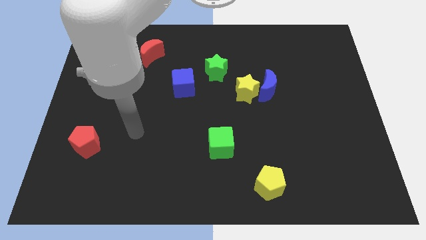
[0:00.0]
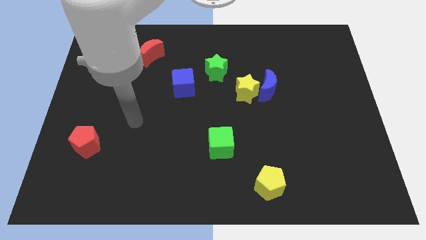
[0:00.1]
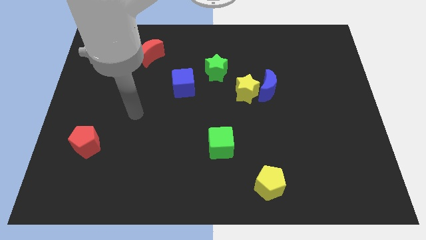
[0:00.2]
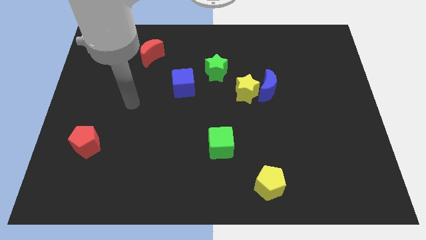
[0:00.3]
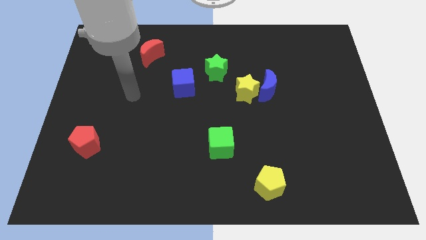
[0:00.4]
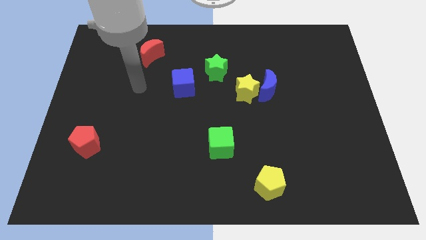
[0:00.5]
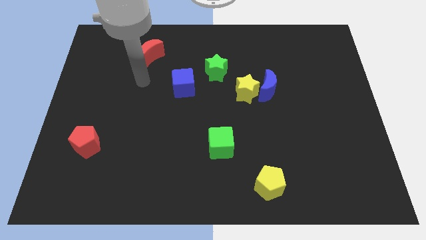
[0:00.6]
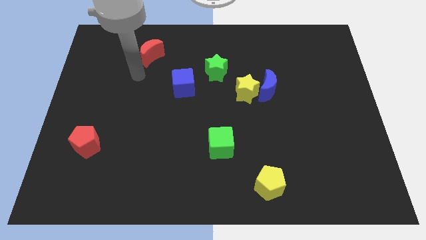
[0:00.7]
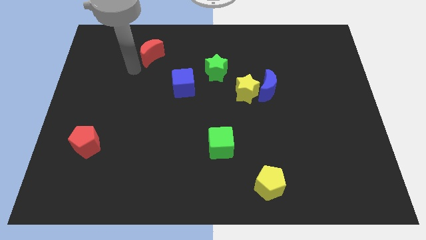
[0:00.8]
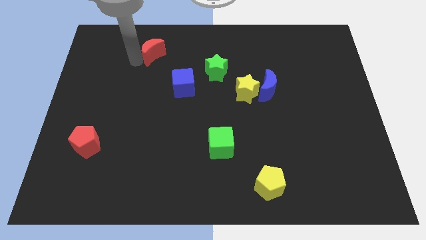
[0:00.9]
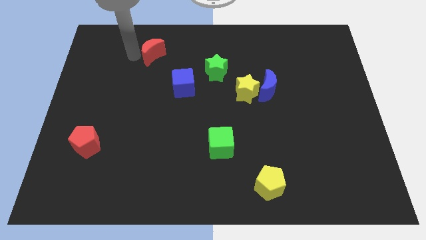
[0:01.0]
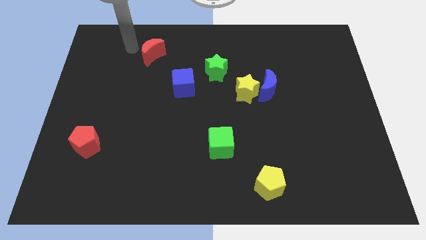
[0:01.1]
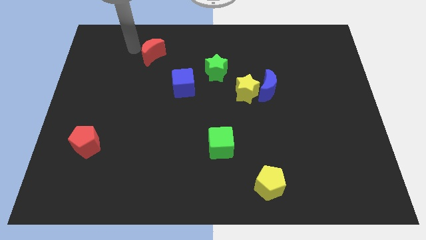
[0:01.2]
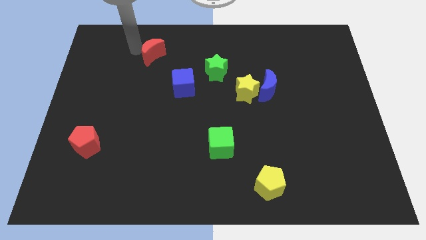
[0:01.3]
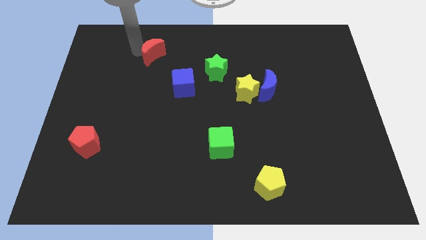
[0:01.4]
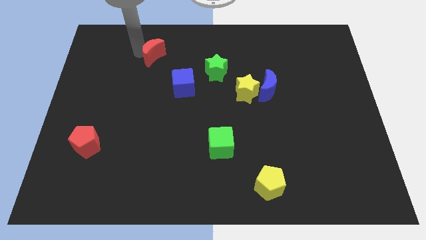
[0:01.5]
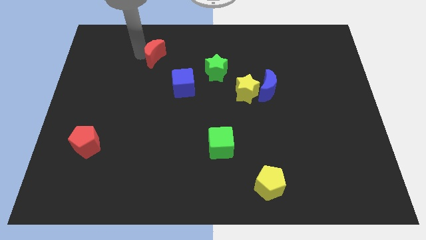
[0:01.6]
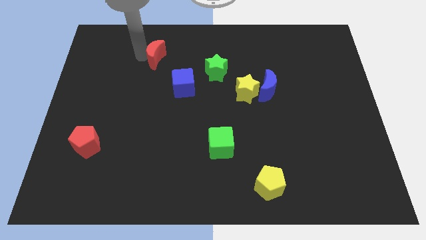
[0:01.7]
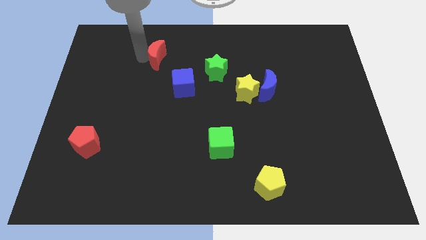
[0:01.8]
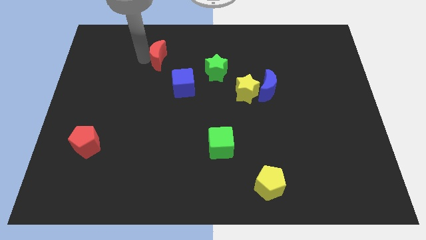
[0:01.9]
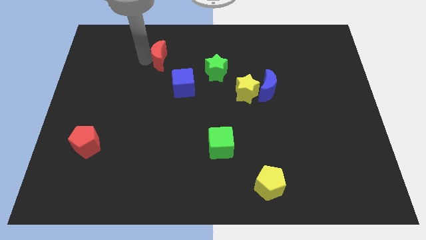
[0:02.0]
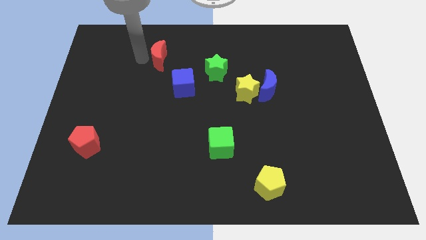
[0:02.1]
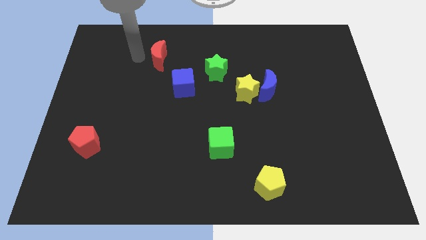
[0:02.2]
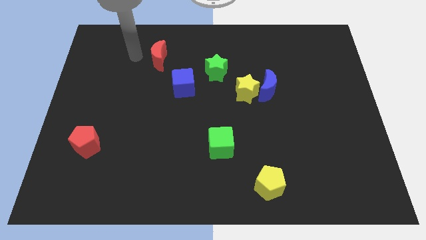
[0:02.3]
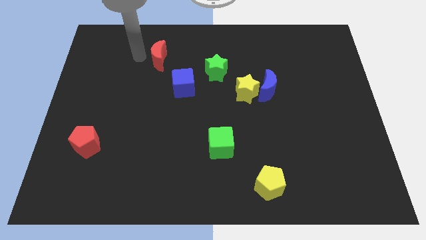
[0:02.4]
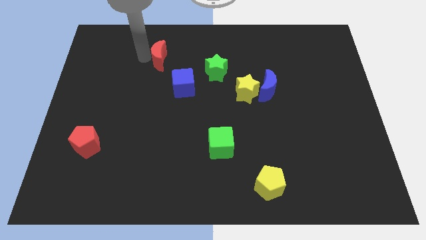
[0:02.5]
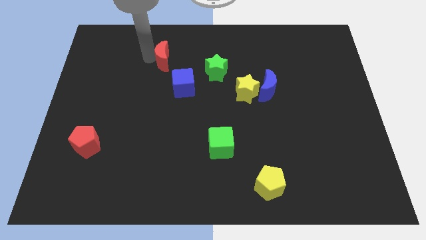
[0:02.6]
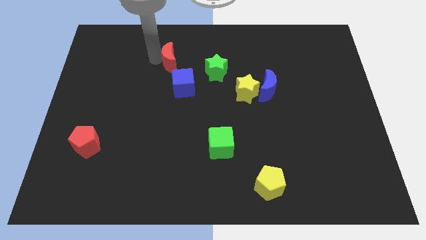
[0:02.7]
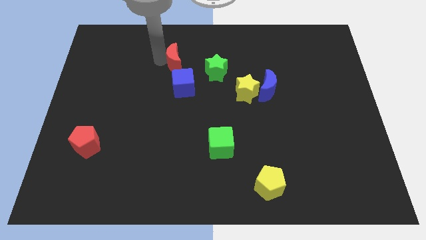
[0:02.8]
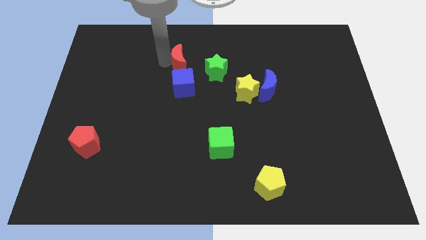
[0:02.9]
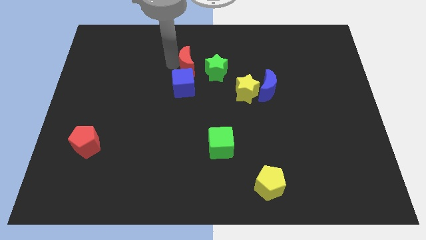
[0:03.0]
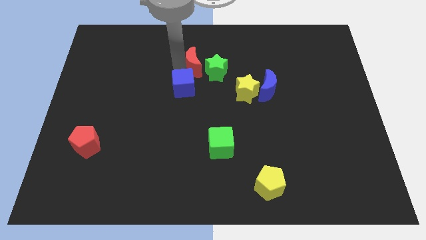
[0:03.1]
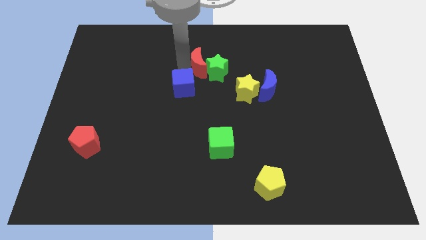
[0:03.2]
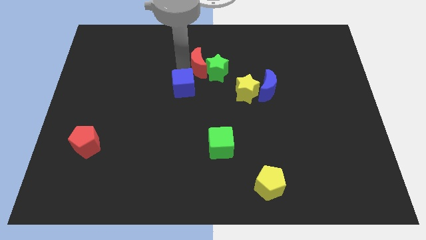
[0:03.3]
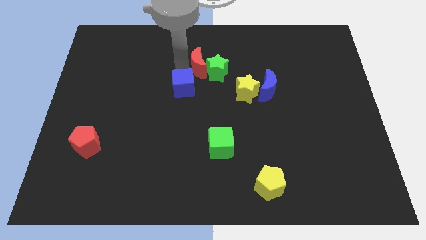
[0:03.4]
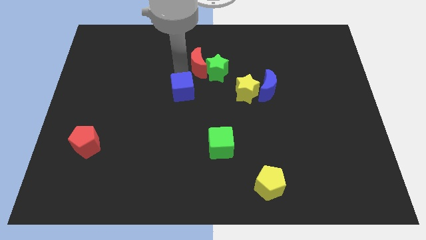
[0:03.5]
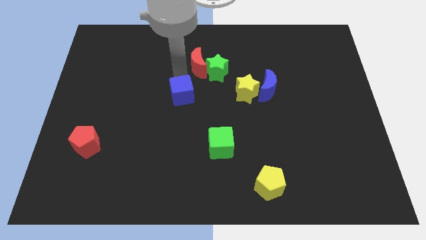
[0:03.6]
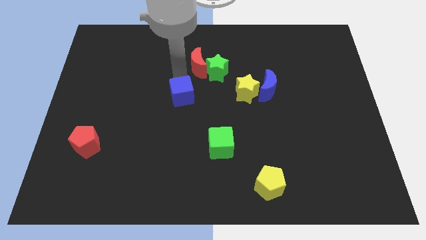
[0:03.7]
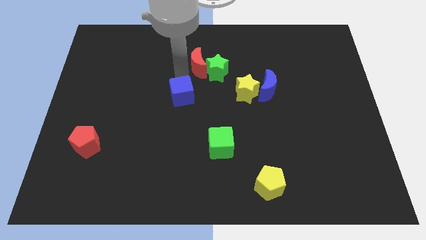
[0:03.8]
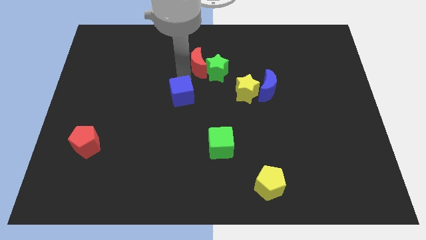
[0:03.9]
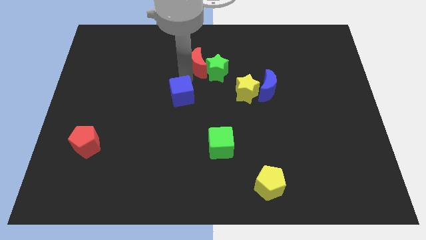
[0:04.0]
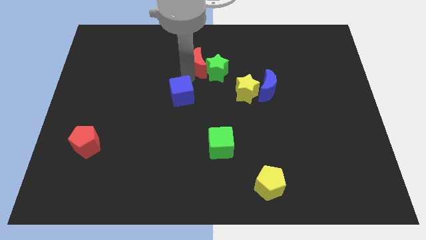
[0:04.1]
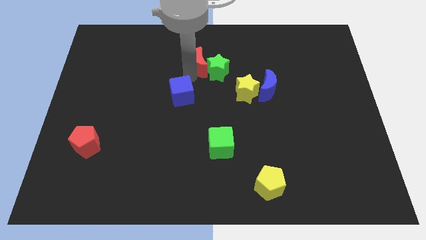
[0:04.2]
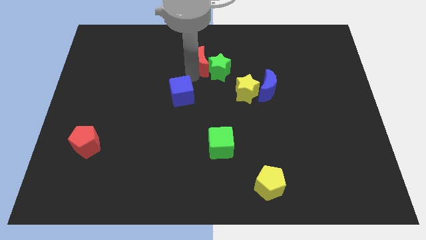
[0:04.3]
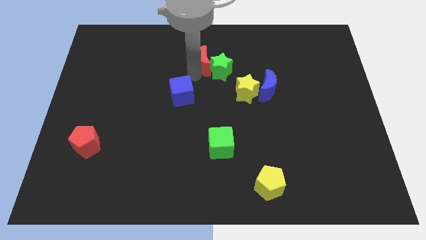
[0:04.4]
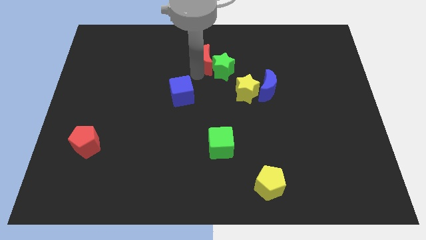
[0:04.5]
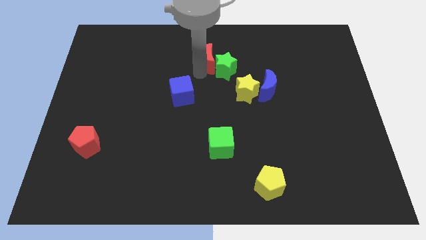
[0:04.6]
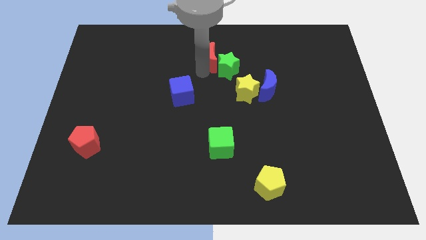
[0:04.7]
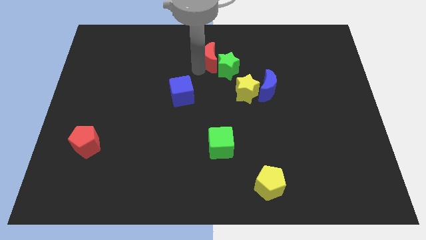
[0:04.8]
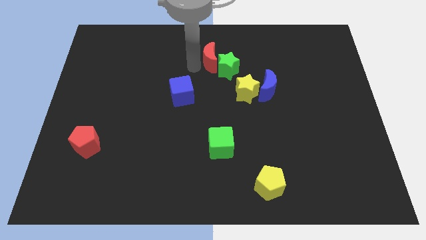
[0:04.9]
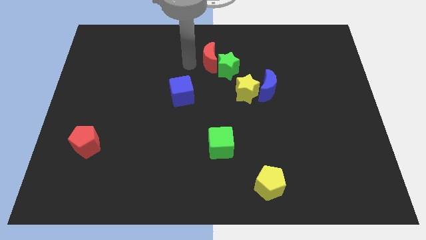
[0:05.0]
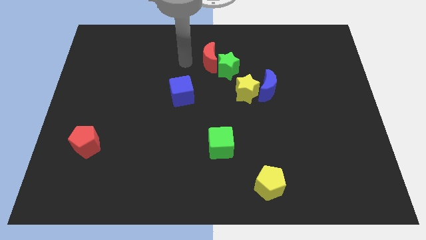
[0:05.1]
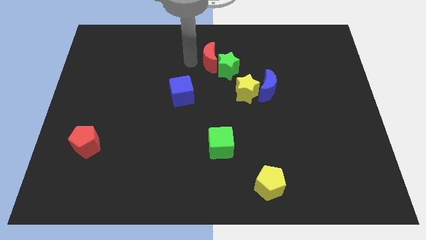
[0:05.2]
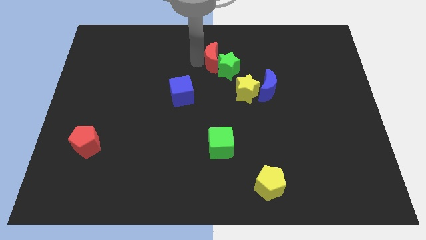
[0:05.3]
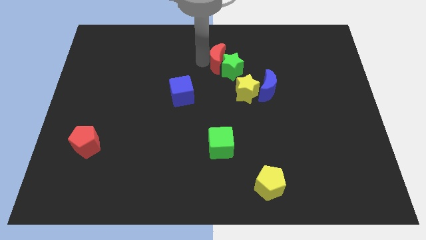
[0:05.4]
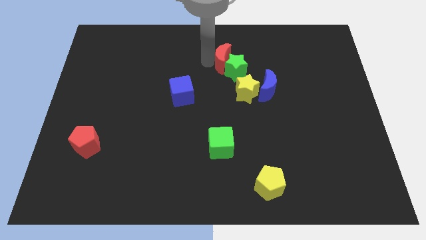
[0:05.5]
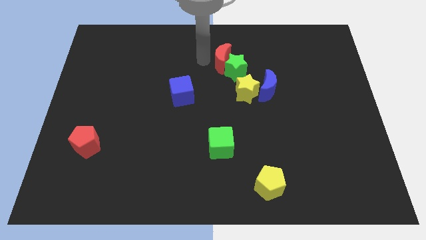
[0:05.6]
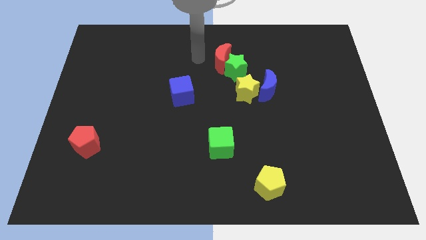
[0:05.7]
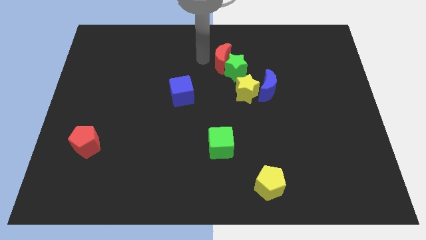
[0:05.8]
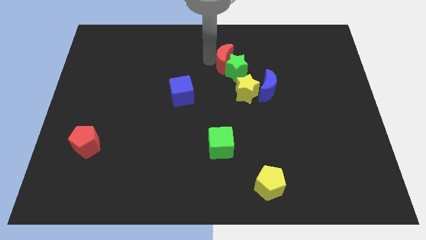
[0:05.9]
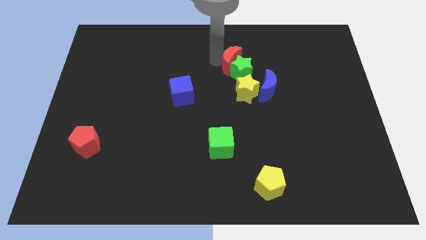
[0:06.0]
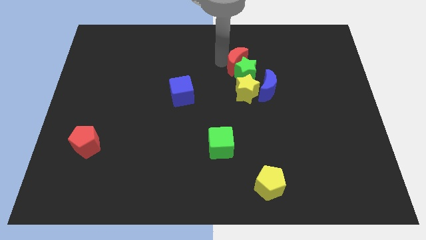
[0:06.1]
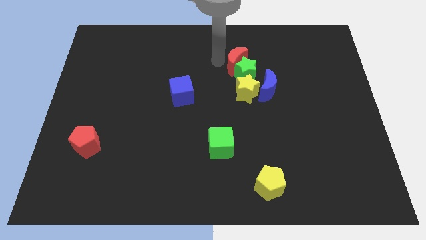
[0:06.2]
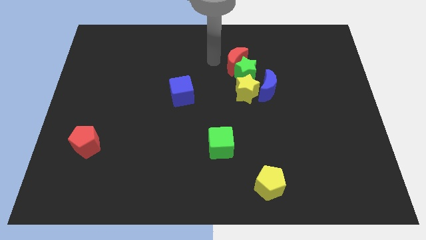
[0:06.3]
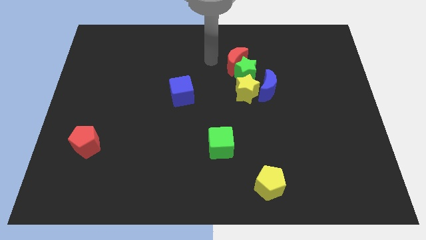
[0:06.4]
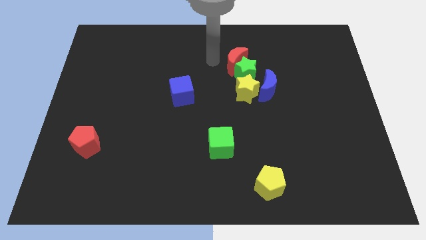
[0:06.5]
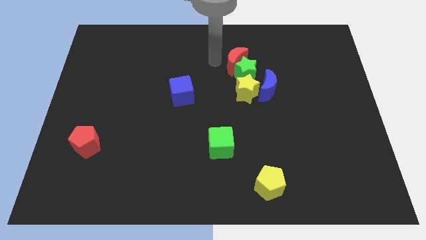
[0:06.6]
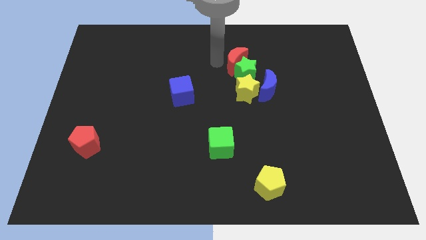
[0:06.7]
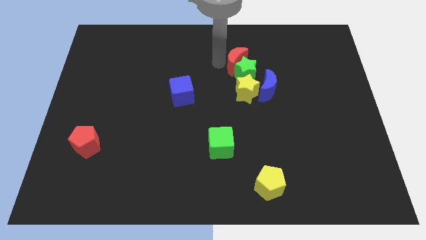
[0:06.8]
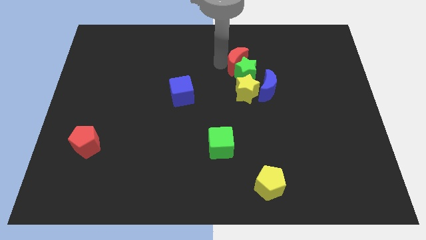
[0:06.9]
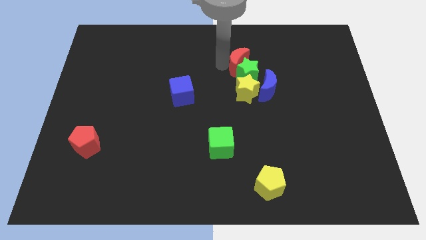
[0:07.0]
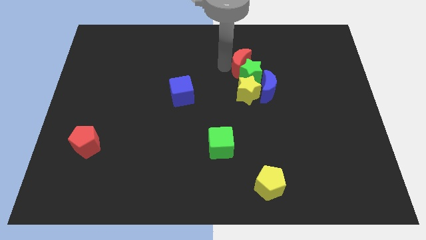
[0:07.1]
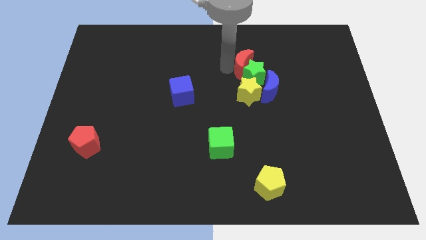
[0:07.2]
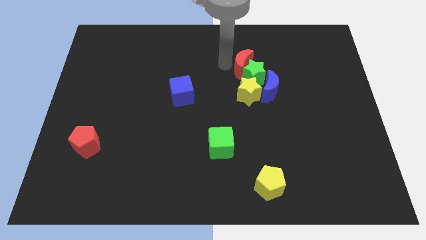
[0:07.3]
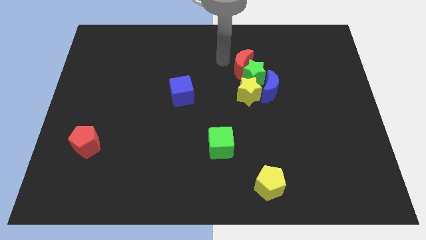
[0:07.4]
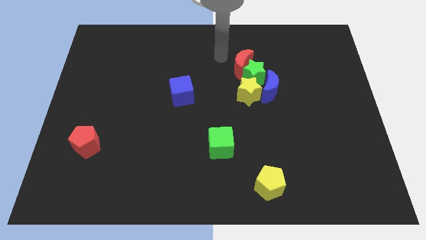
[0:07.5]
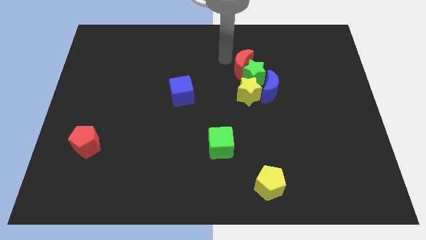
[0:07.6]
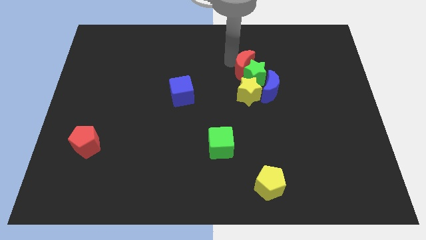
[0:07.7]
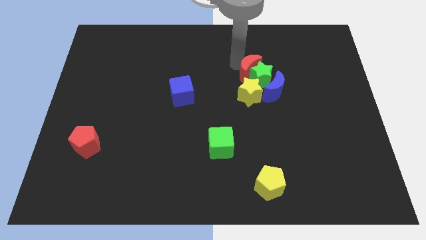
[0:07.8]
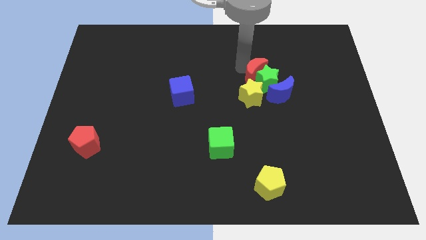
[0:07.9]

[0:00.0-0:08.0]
move the red moon diagonally up and to the right of the yellow star
